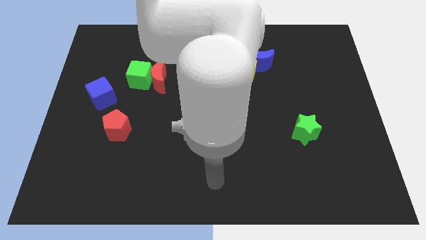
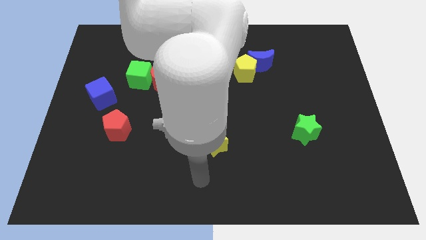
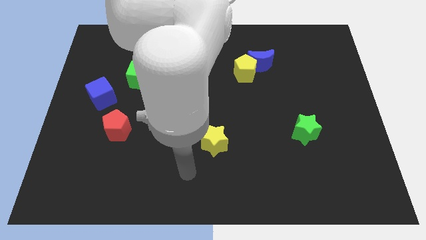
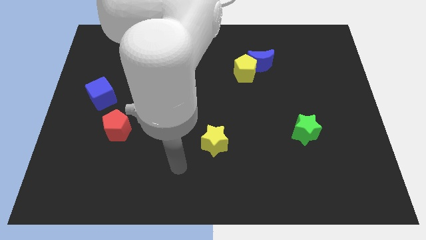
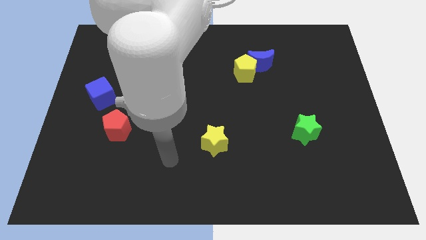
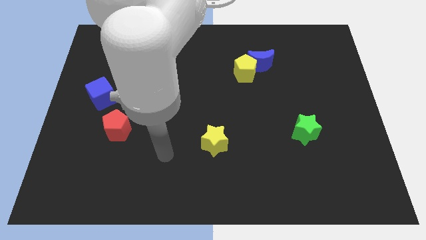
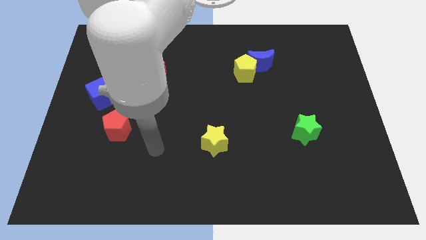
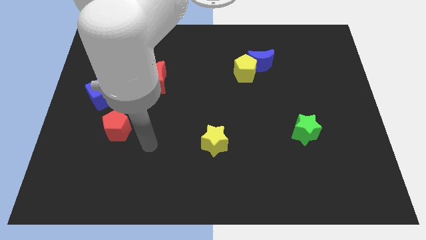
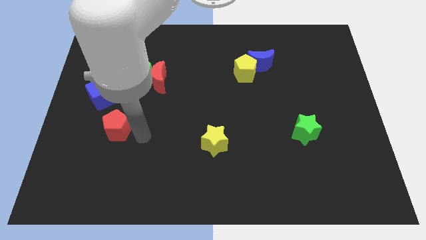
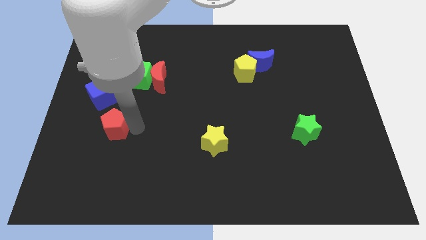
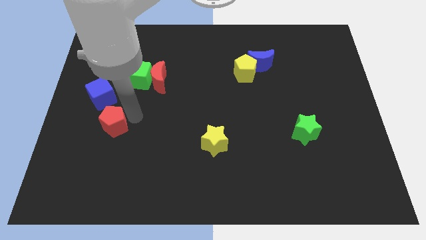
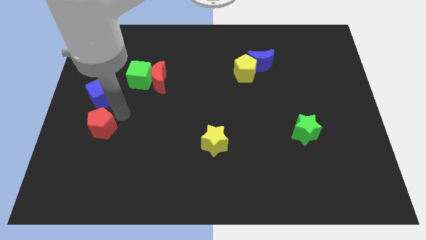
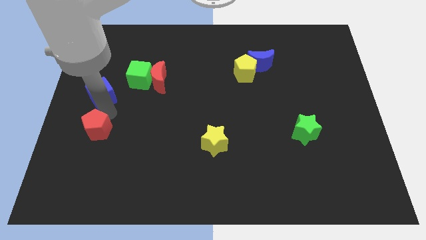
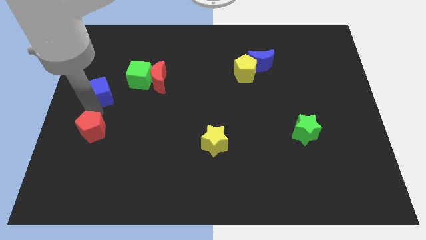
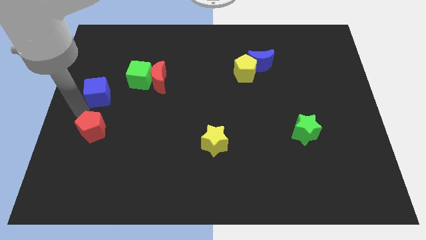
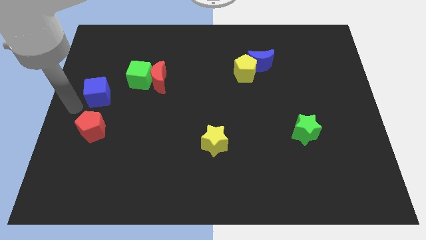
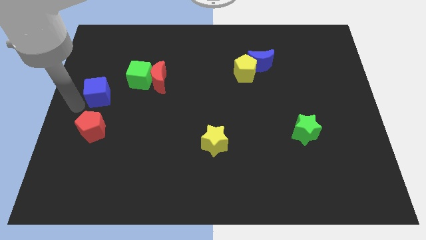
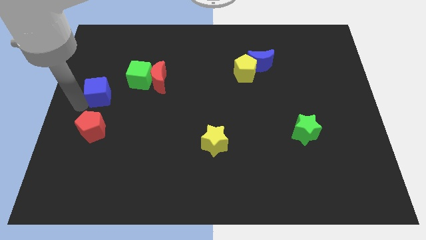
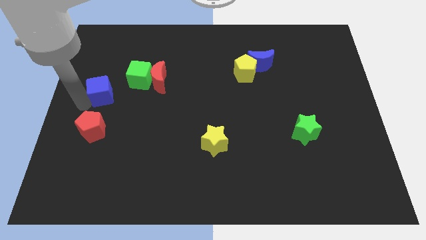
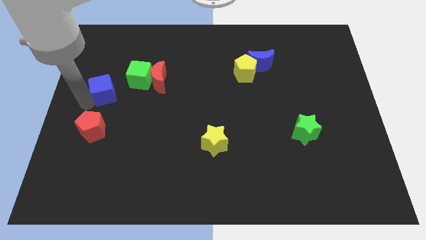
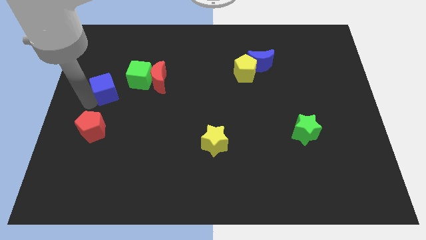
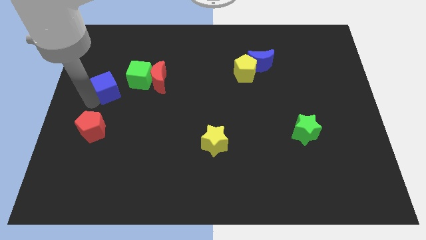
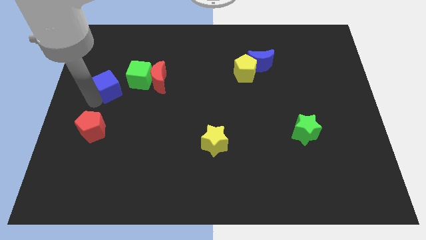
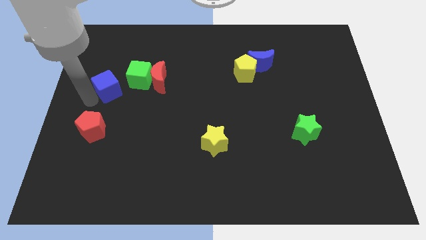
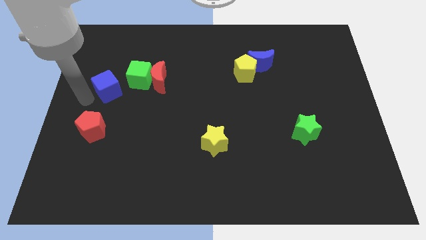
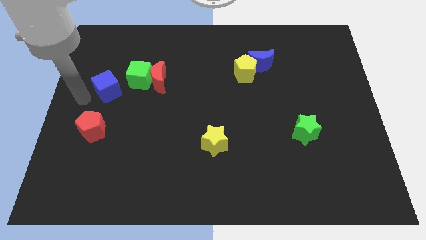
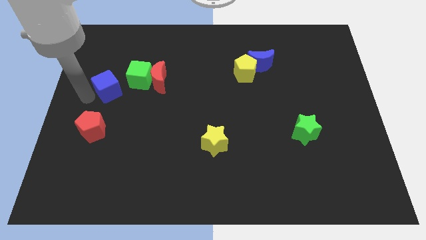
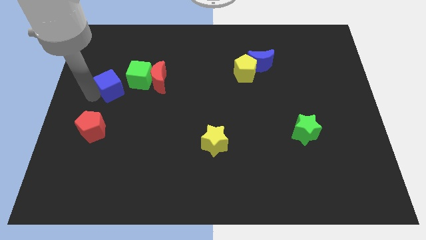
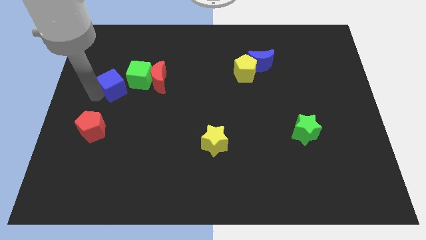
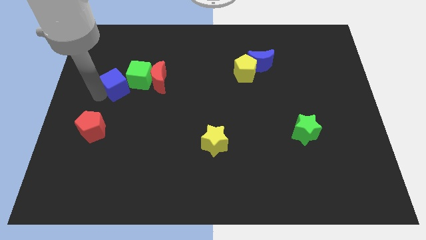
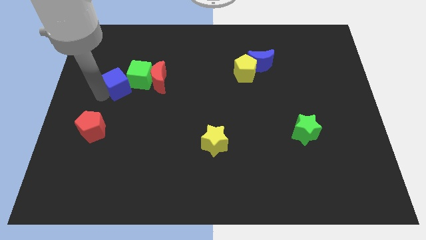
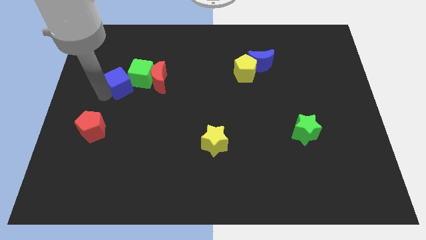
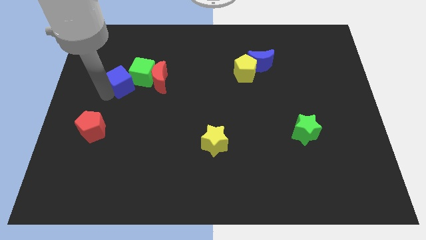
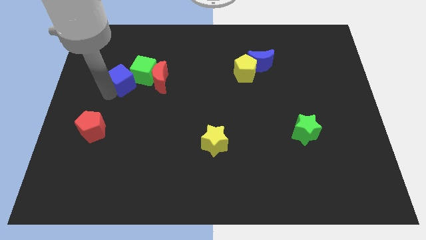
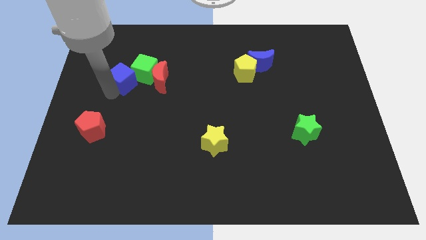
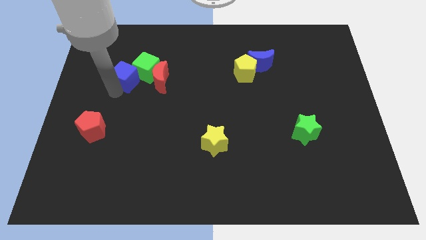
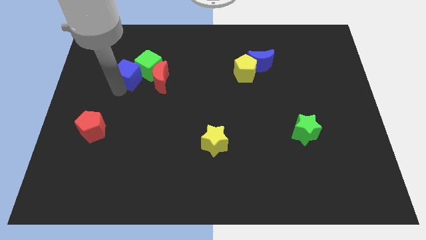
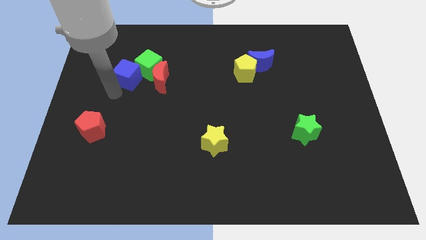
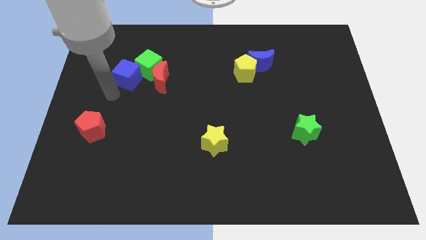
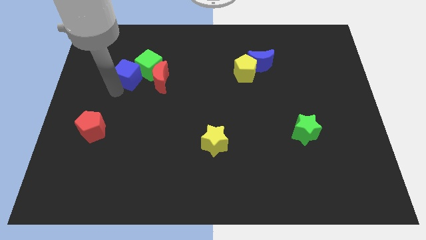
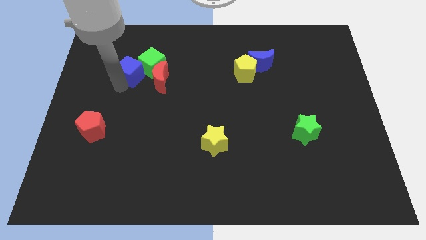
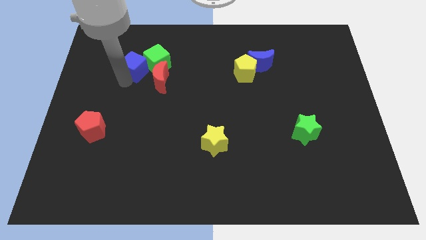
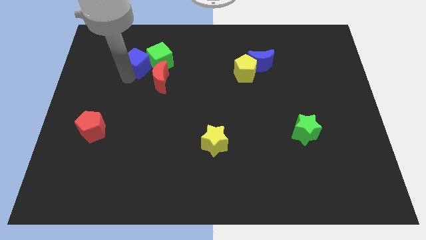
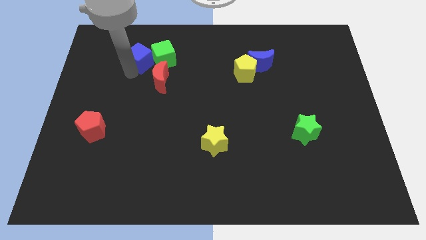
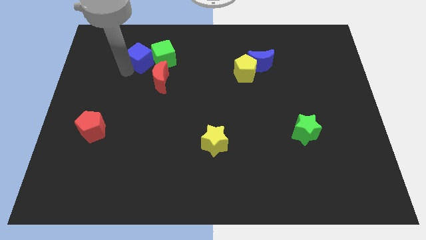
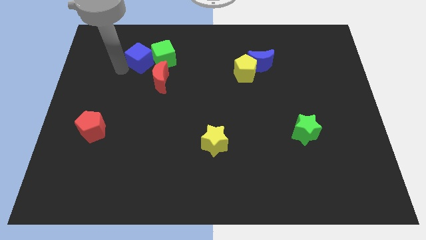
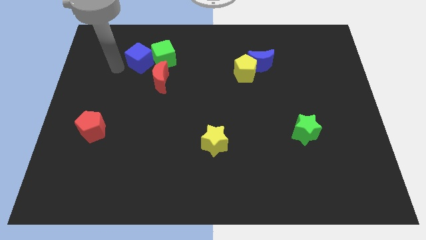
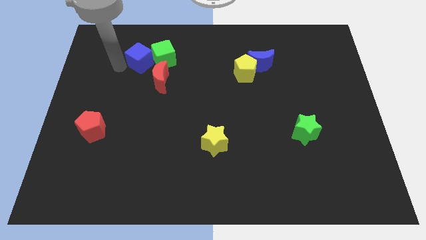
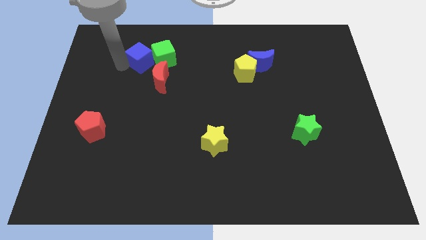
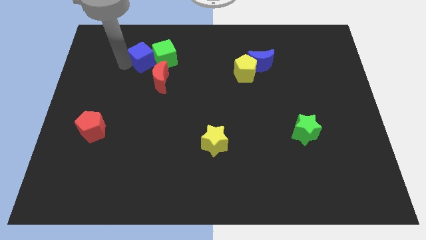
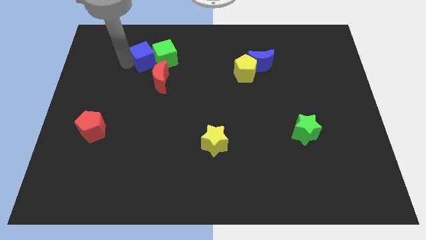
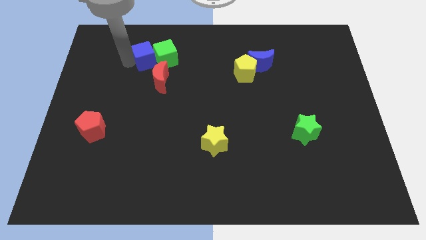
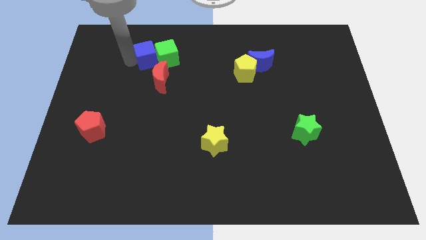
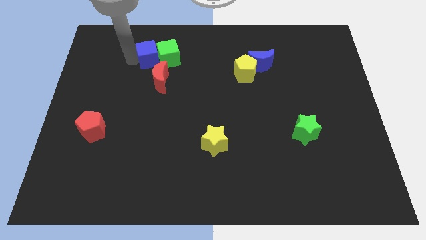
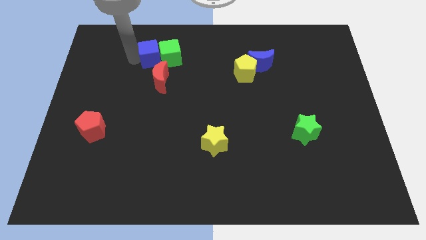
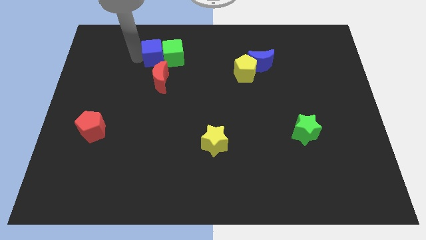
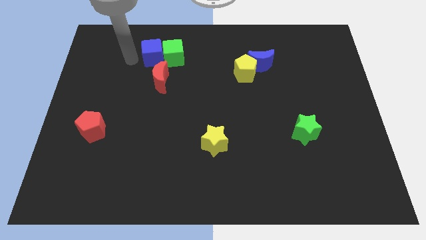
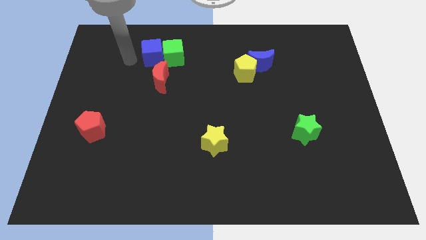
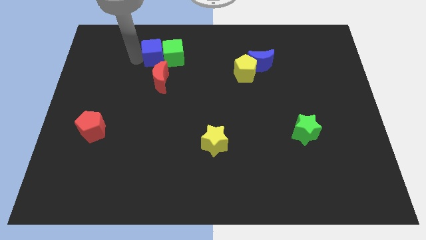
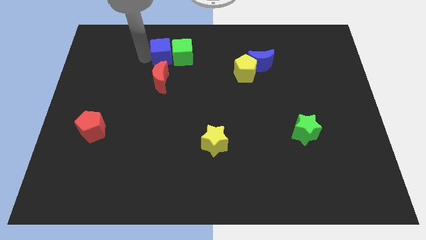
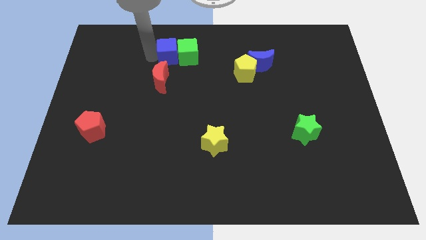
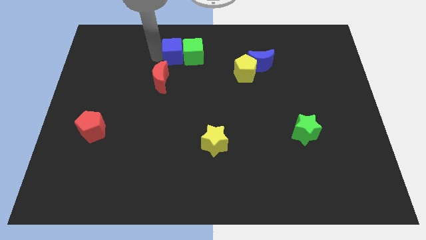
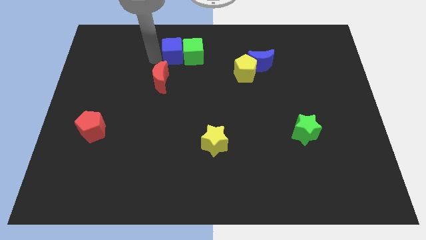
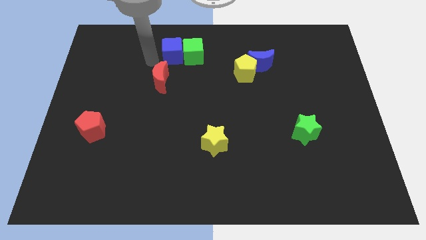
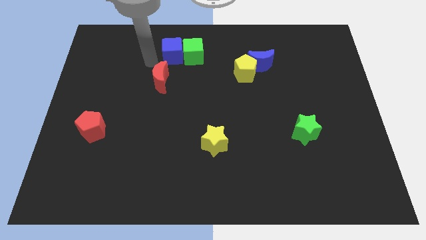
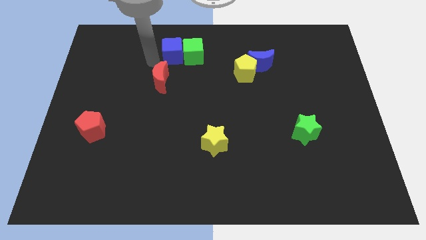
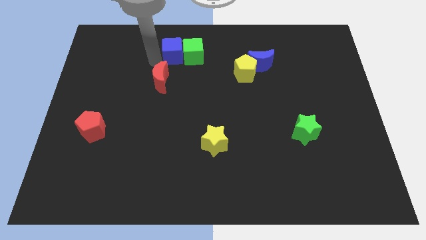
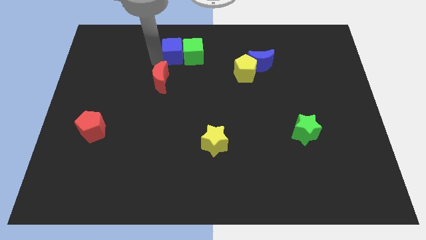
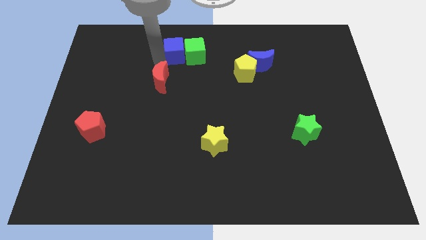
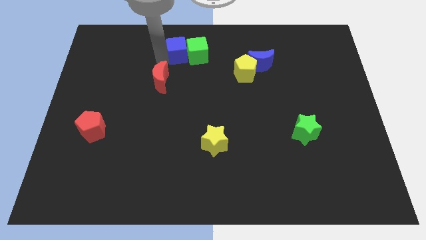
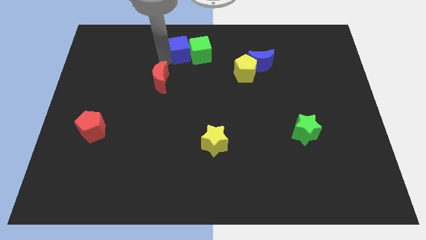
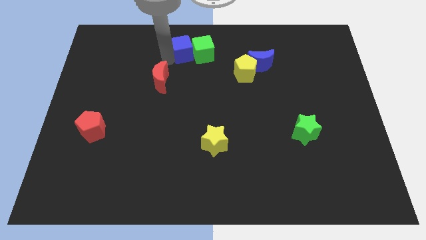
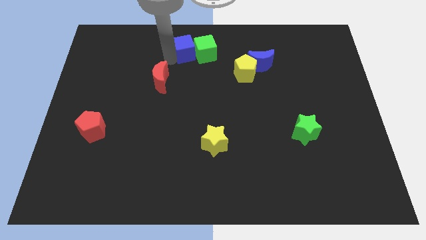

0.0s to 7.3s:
push the blue cube to the top
